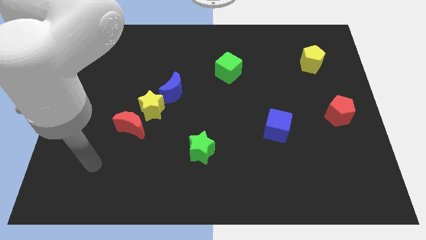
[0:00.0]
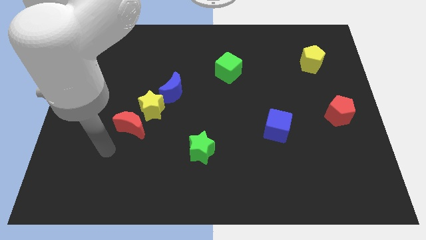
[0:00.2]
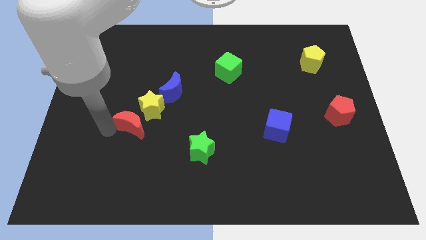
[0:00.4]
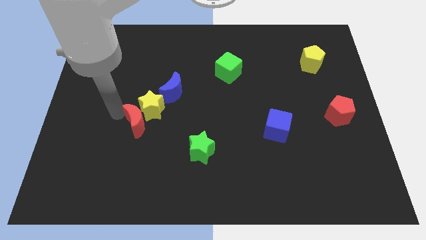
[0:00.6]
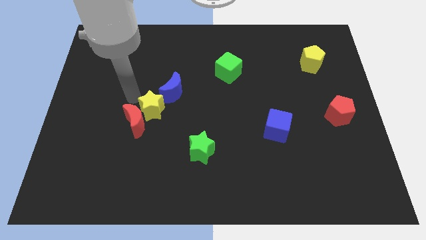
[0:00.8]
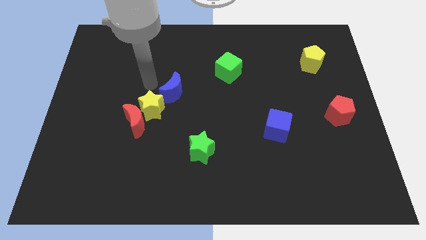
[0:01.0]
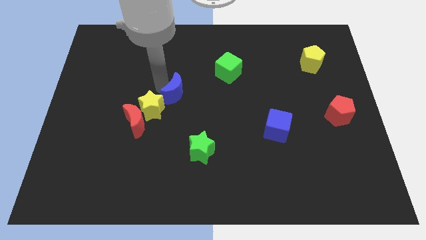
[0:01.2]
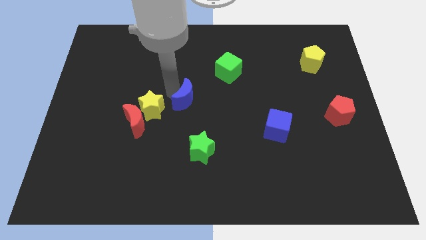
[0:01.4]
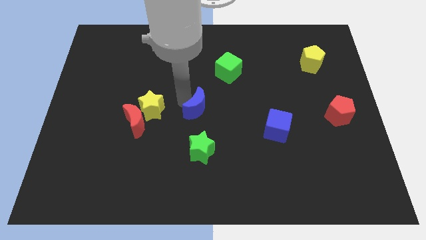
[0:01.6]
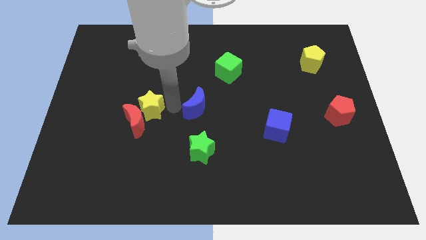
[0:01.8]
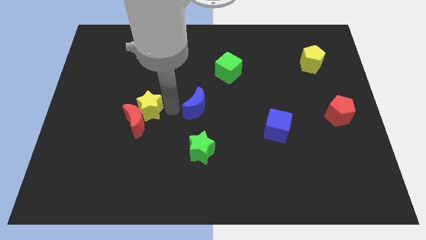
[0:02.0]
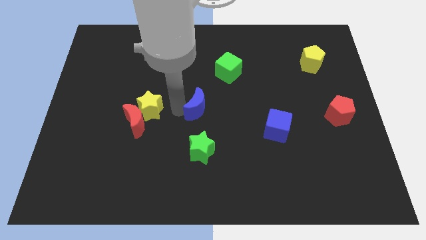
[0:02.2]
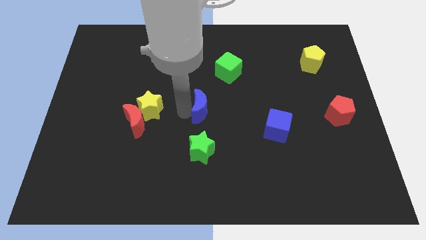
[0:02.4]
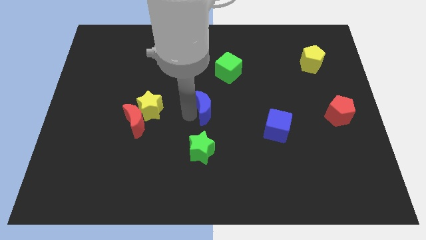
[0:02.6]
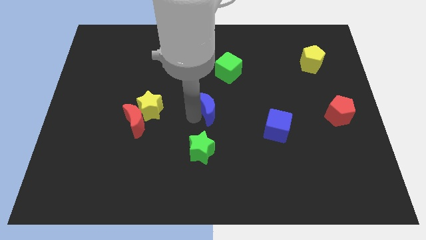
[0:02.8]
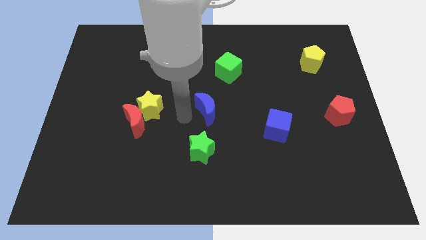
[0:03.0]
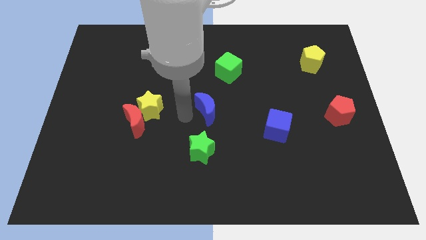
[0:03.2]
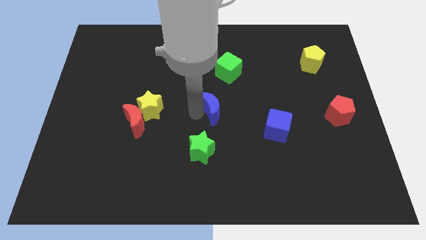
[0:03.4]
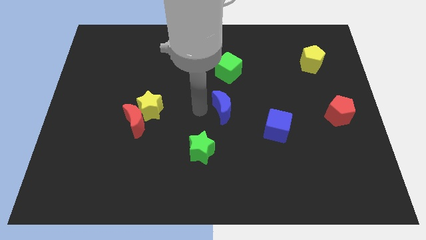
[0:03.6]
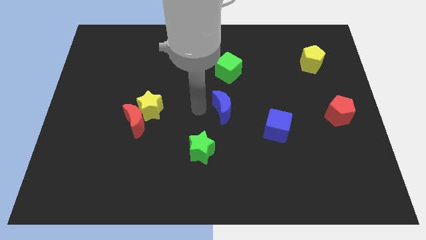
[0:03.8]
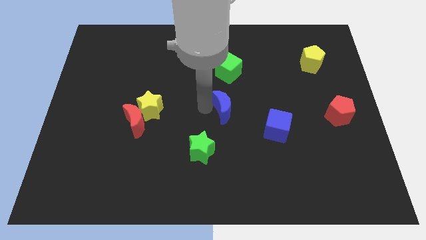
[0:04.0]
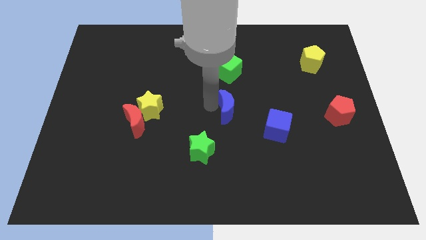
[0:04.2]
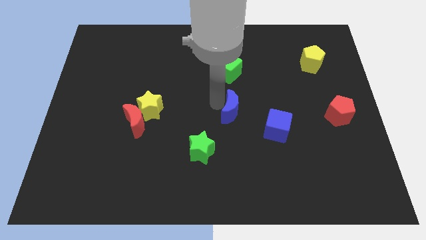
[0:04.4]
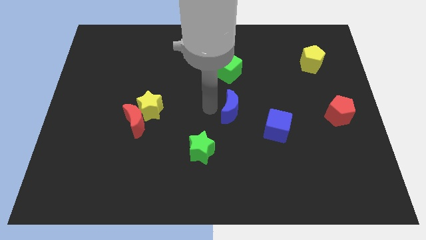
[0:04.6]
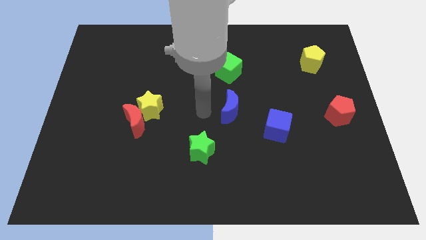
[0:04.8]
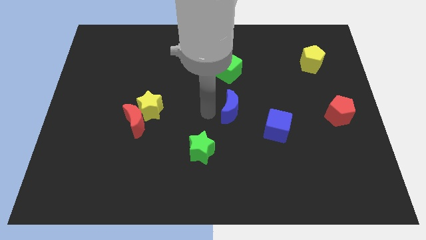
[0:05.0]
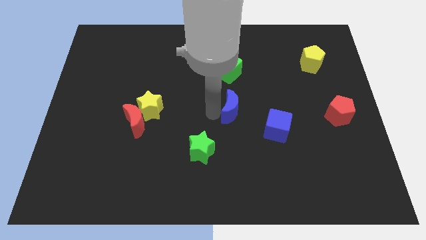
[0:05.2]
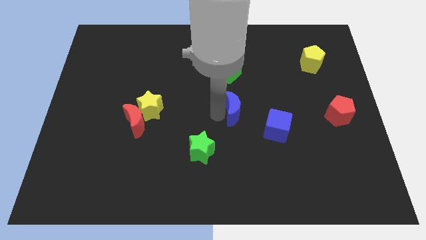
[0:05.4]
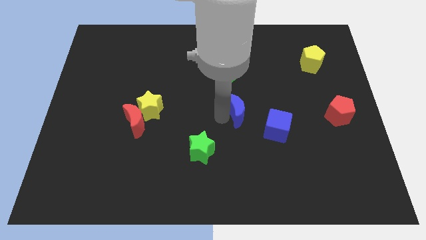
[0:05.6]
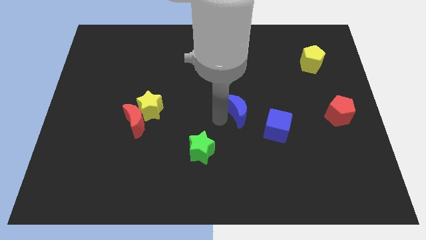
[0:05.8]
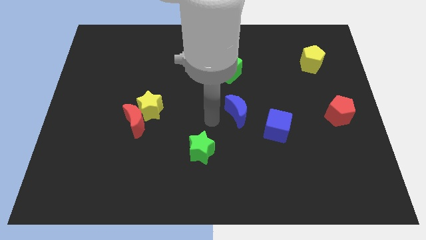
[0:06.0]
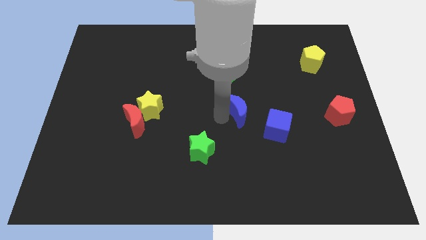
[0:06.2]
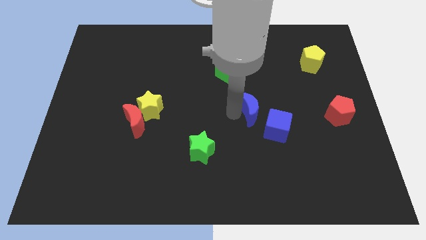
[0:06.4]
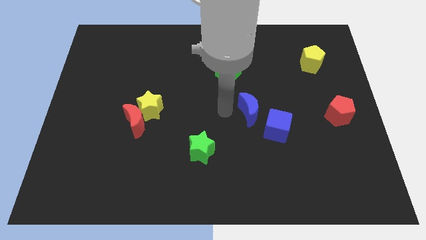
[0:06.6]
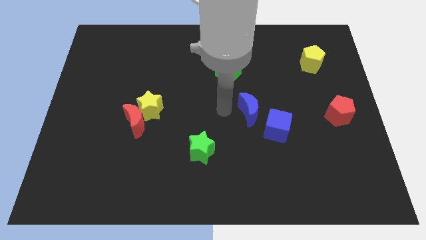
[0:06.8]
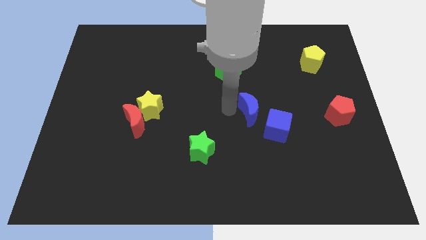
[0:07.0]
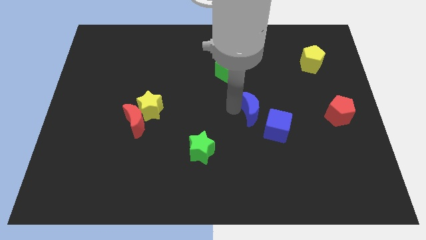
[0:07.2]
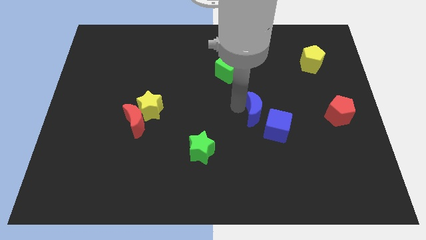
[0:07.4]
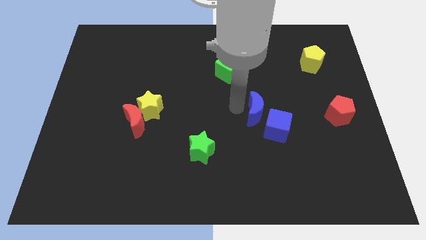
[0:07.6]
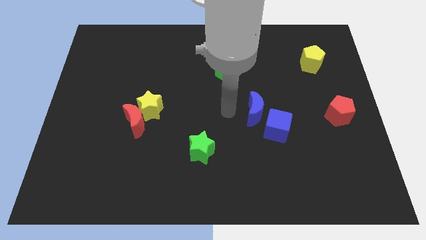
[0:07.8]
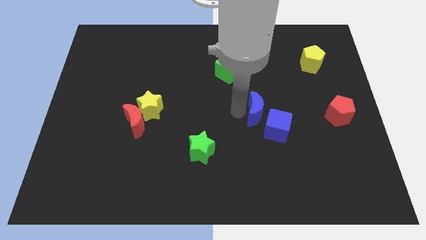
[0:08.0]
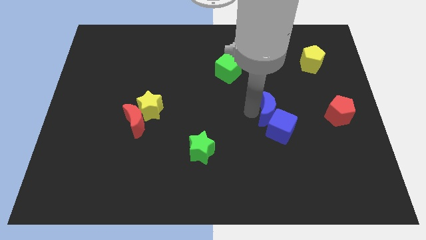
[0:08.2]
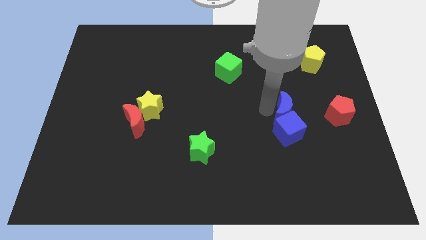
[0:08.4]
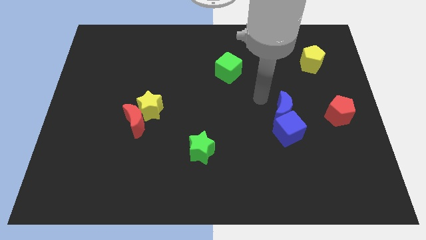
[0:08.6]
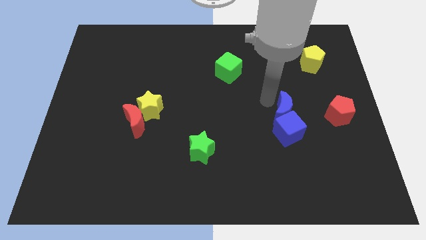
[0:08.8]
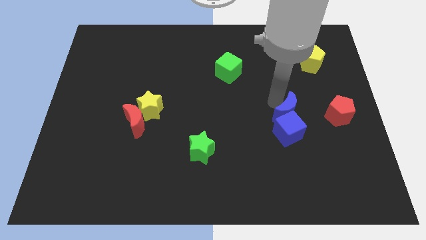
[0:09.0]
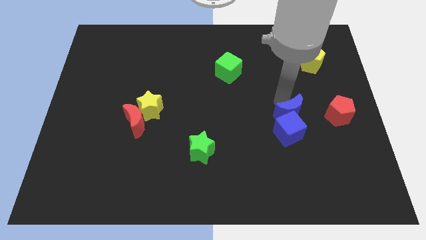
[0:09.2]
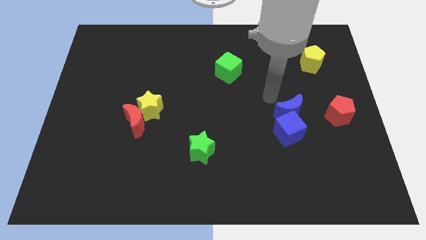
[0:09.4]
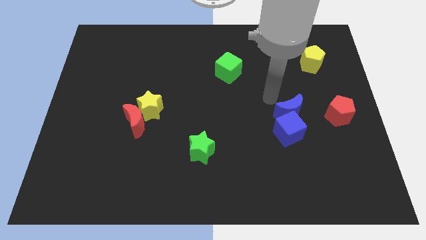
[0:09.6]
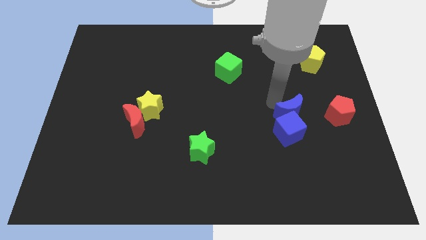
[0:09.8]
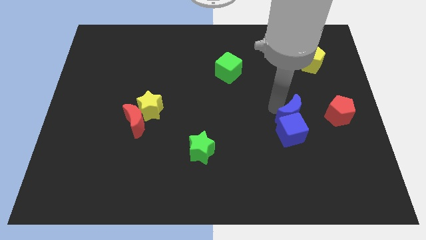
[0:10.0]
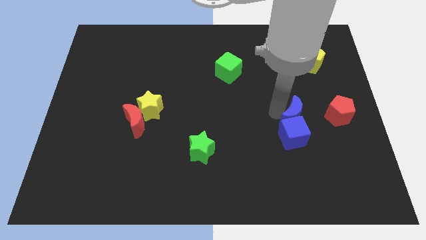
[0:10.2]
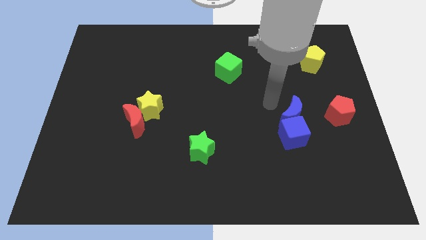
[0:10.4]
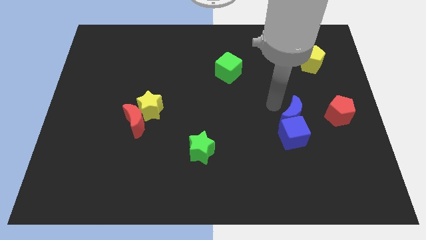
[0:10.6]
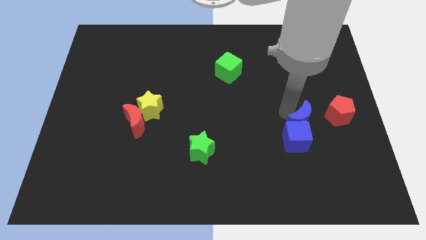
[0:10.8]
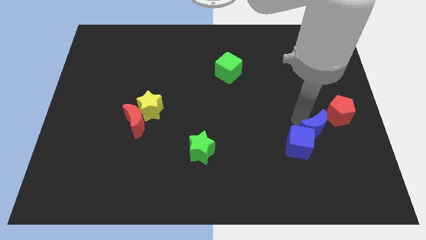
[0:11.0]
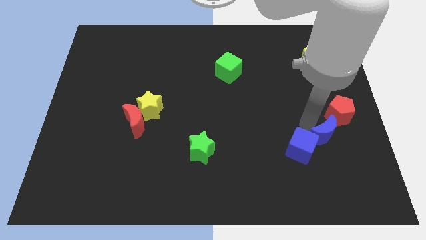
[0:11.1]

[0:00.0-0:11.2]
slide the blue moon to the bottom side of the red pentagon

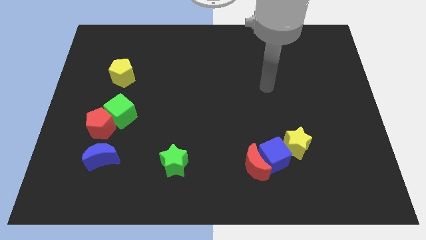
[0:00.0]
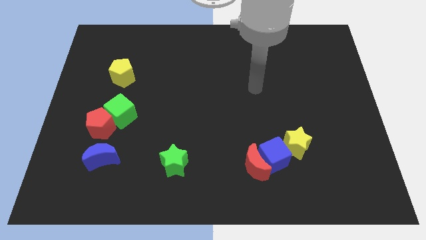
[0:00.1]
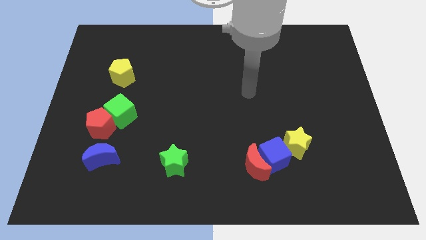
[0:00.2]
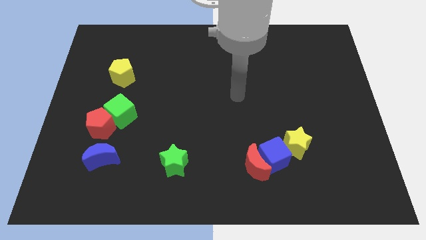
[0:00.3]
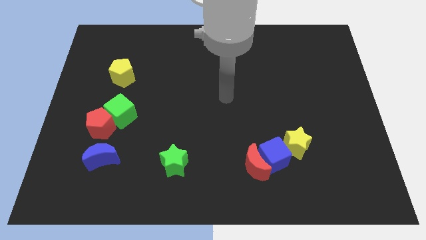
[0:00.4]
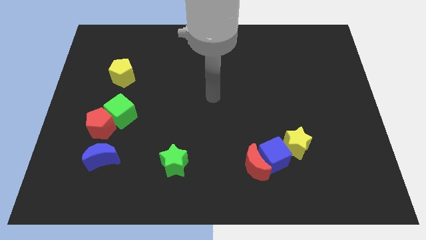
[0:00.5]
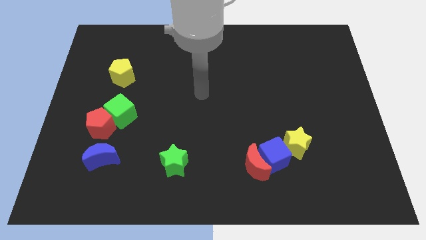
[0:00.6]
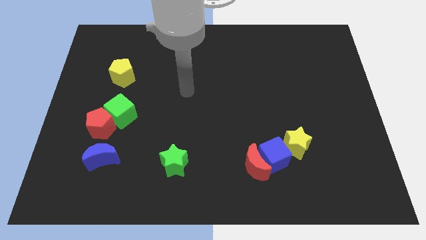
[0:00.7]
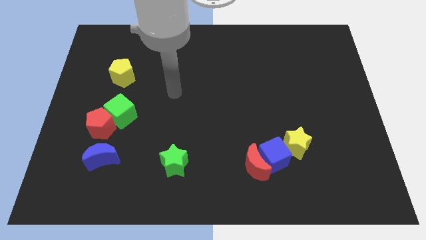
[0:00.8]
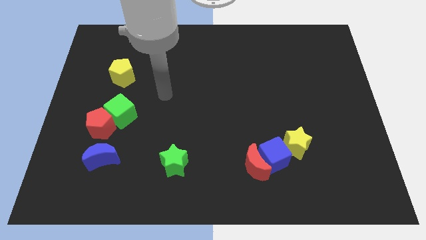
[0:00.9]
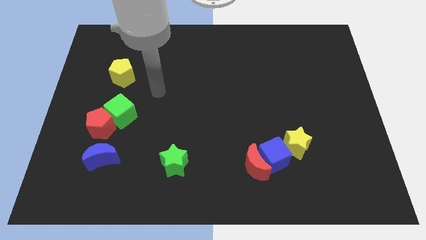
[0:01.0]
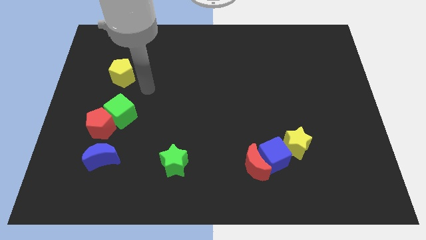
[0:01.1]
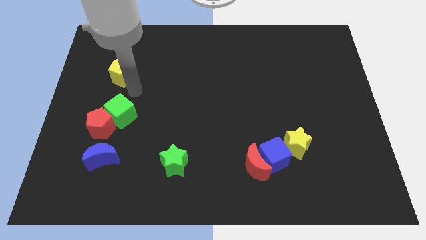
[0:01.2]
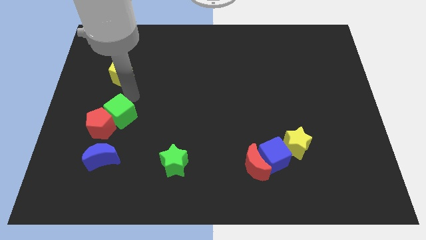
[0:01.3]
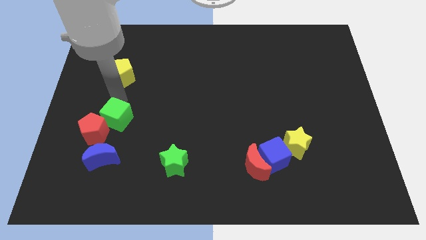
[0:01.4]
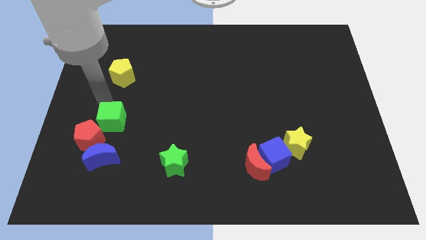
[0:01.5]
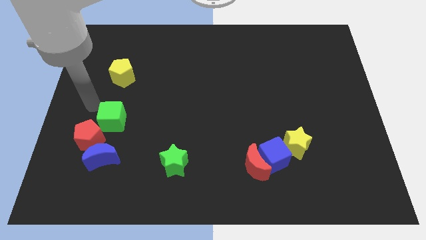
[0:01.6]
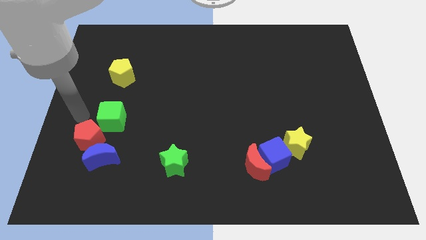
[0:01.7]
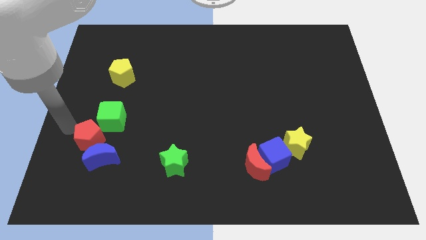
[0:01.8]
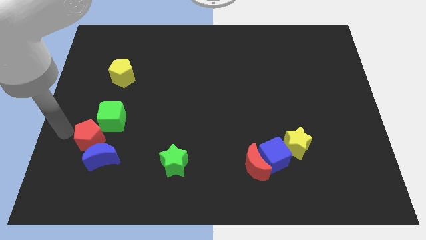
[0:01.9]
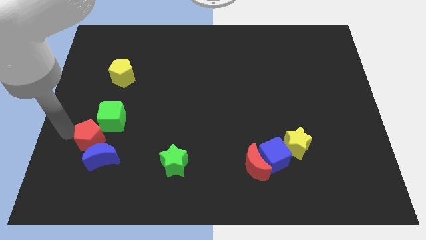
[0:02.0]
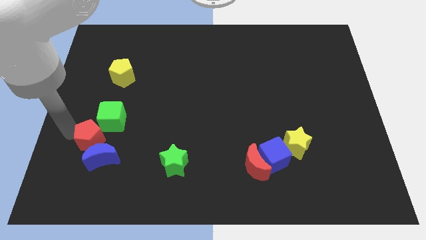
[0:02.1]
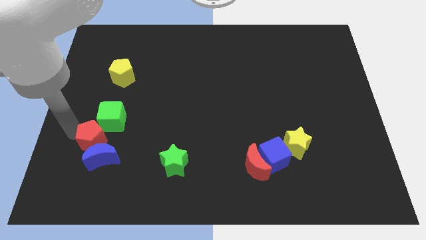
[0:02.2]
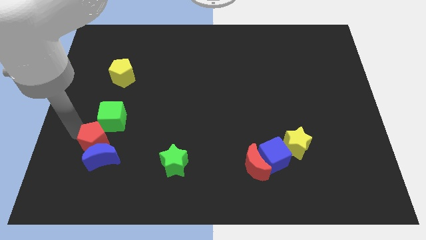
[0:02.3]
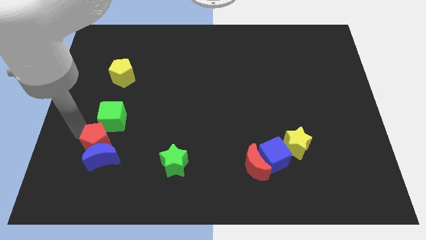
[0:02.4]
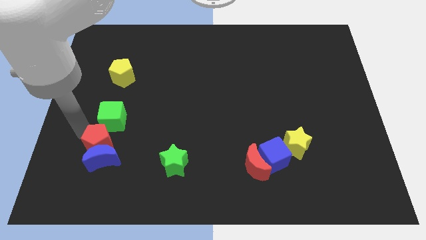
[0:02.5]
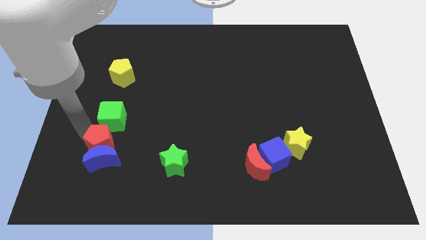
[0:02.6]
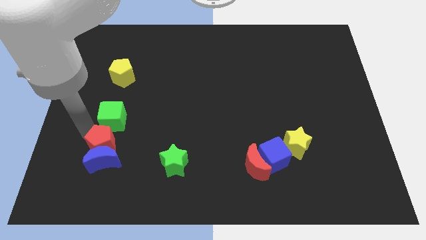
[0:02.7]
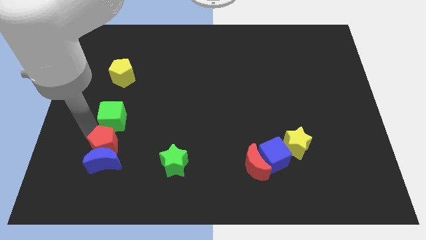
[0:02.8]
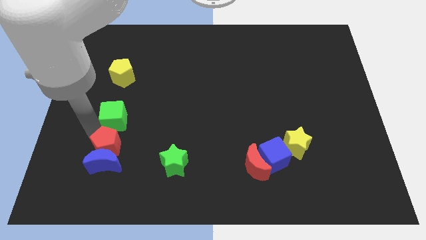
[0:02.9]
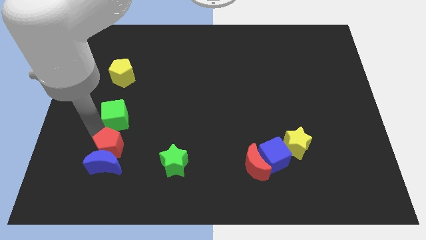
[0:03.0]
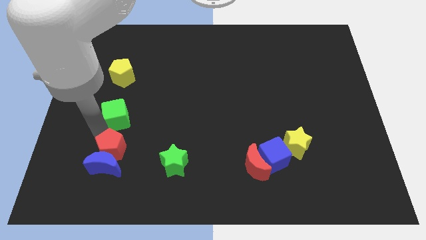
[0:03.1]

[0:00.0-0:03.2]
slide the red pentagon just left of the green star
